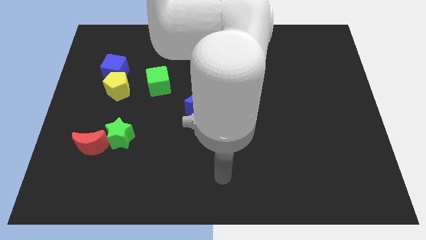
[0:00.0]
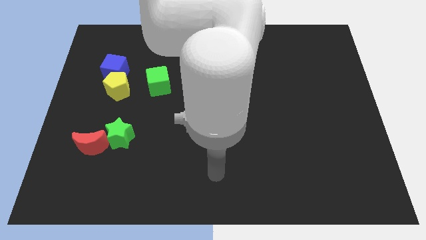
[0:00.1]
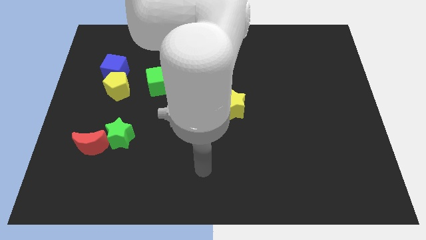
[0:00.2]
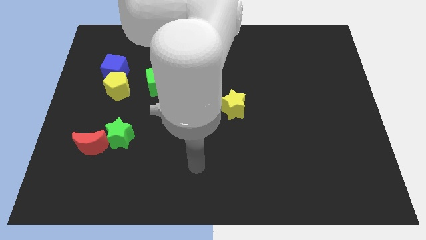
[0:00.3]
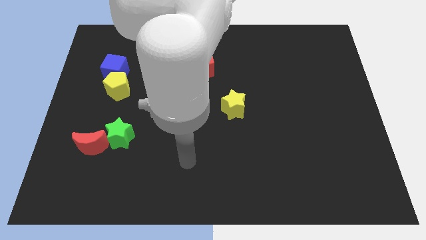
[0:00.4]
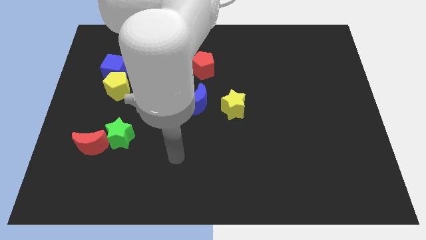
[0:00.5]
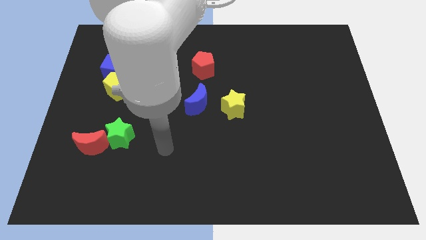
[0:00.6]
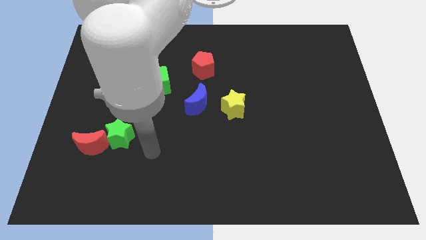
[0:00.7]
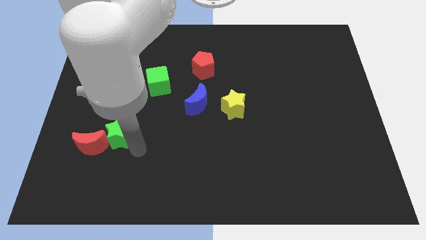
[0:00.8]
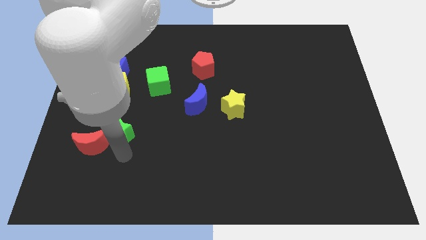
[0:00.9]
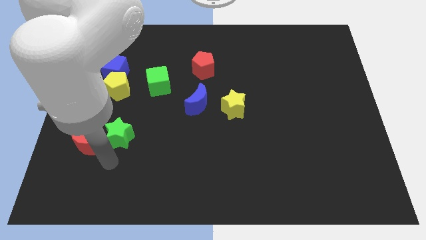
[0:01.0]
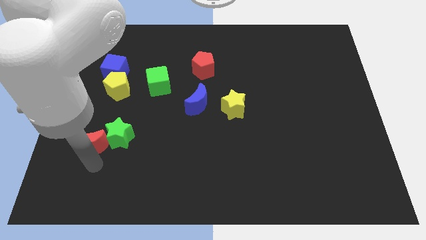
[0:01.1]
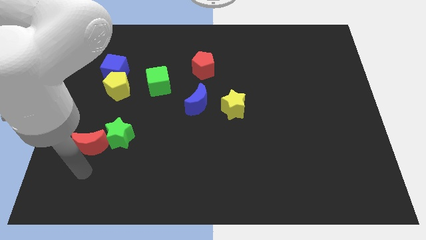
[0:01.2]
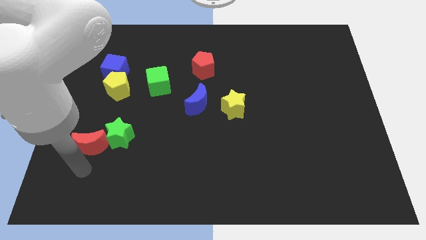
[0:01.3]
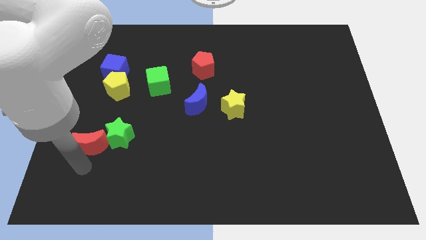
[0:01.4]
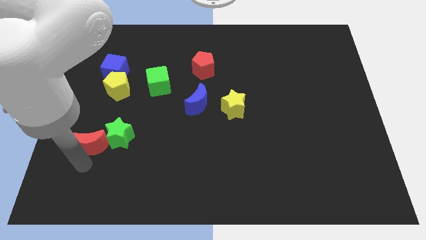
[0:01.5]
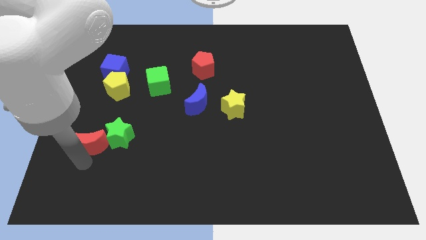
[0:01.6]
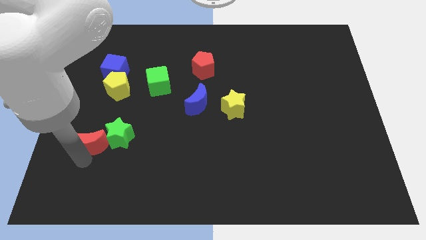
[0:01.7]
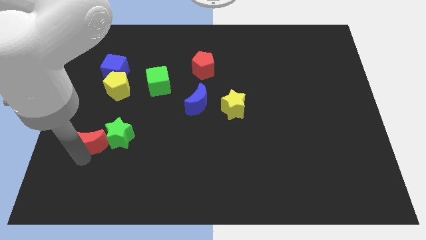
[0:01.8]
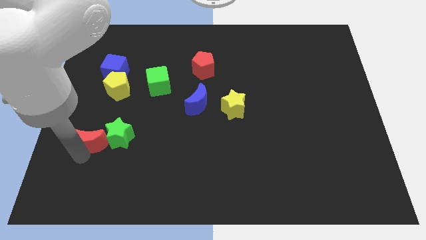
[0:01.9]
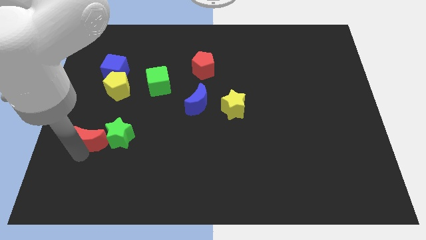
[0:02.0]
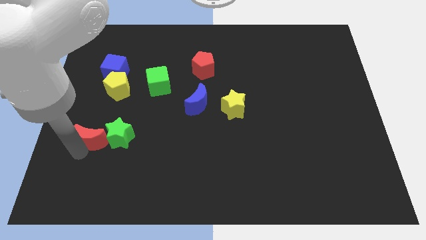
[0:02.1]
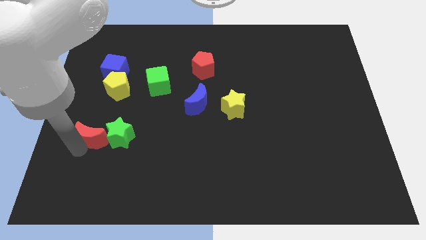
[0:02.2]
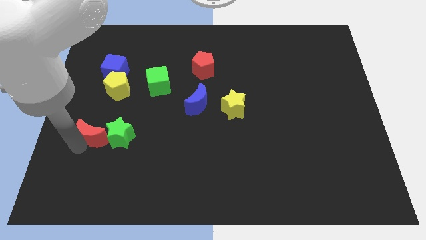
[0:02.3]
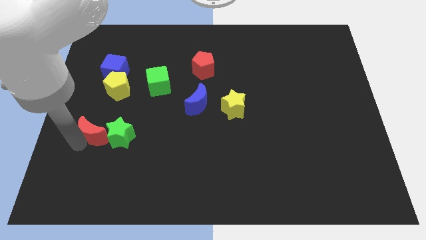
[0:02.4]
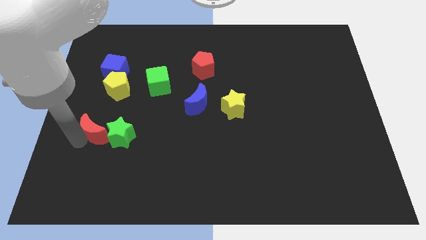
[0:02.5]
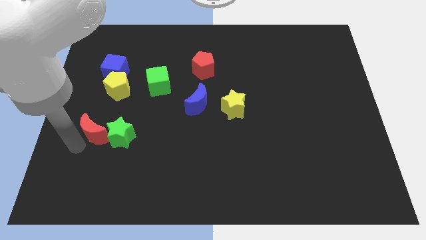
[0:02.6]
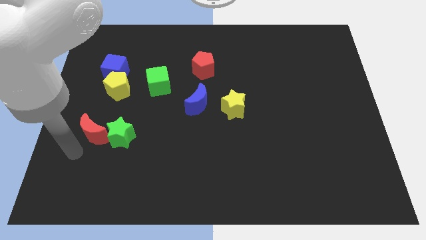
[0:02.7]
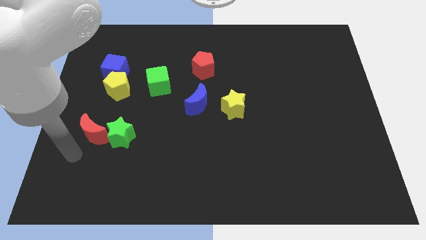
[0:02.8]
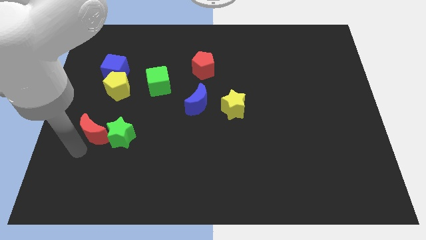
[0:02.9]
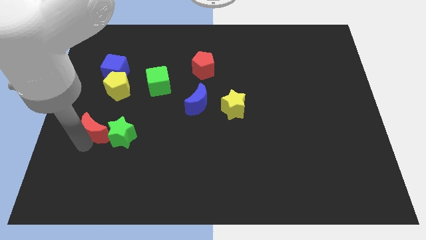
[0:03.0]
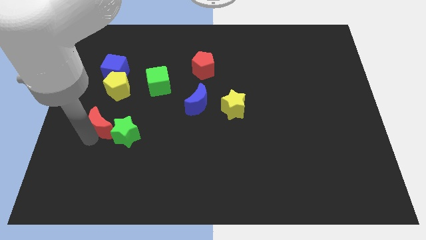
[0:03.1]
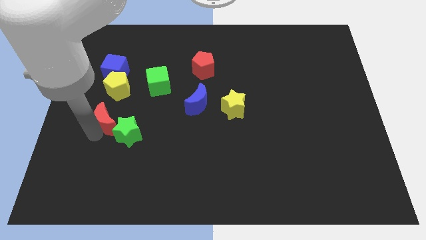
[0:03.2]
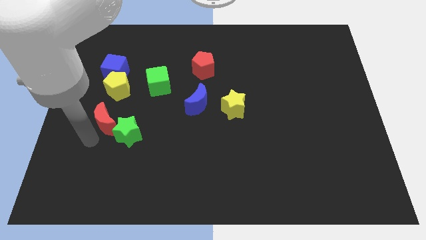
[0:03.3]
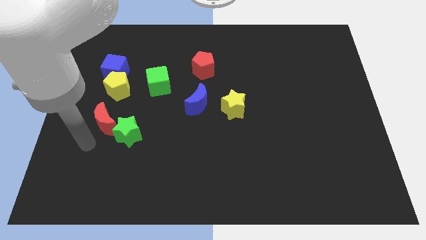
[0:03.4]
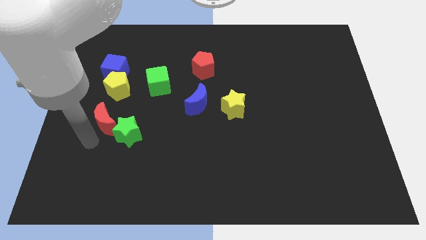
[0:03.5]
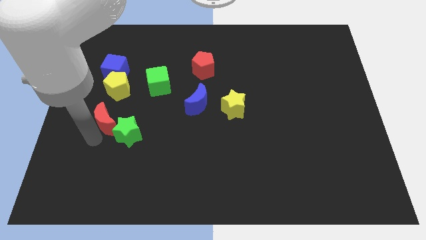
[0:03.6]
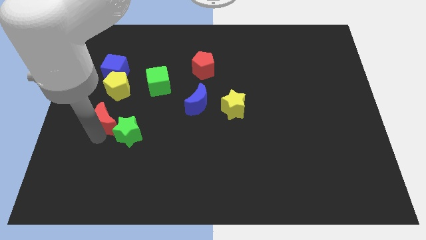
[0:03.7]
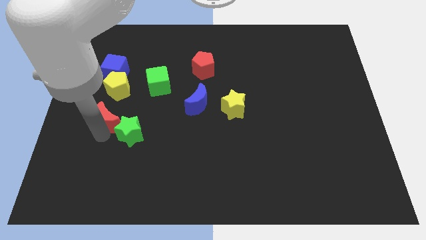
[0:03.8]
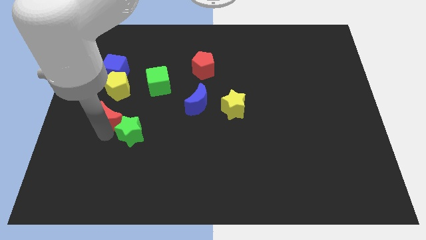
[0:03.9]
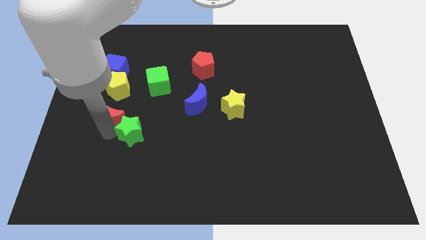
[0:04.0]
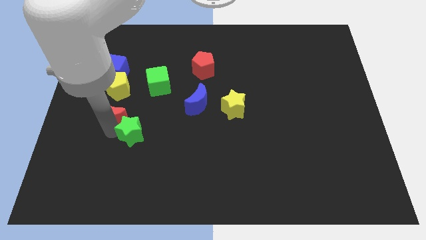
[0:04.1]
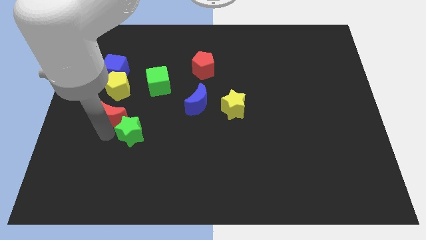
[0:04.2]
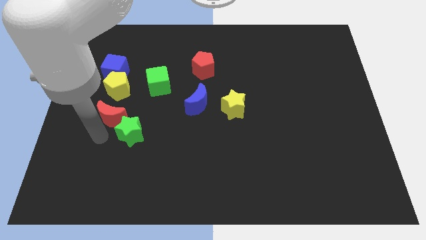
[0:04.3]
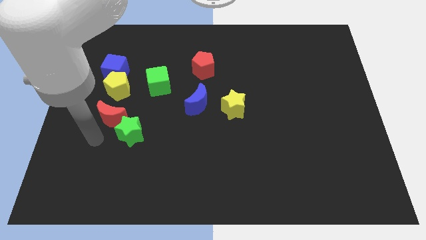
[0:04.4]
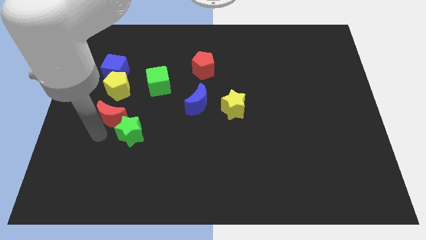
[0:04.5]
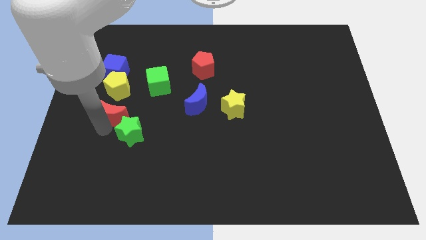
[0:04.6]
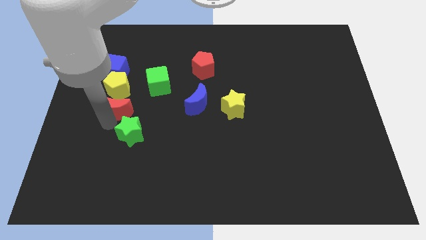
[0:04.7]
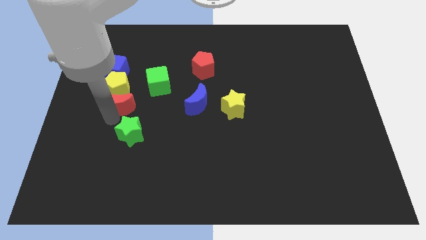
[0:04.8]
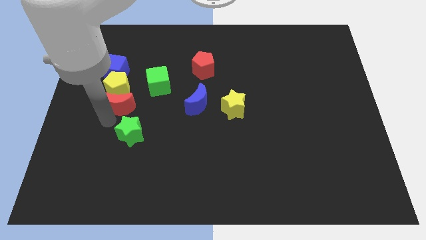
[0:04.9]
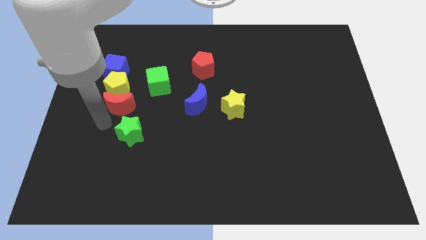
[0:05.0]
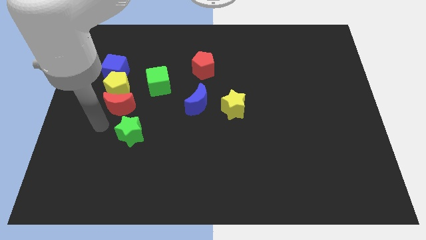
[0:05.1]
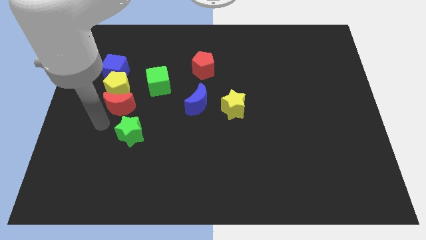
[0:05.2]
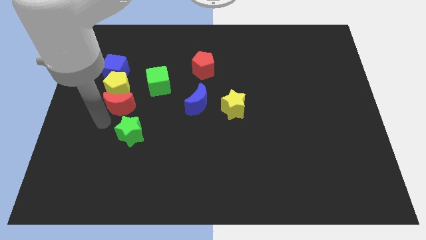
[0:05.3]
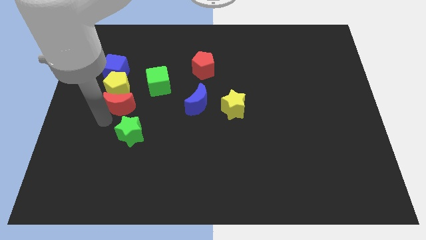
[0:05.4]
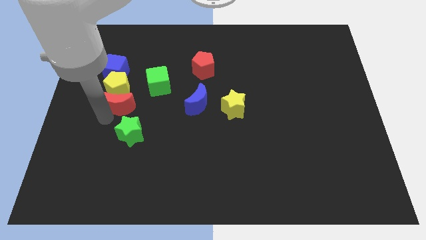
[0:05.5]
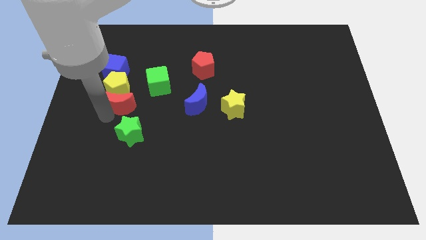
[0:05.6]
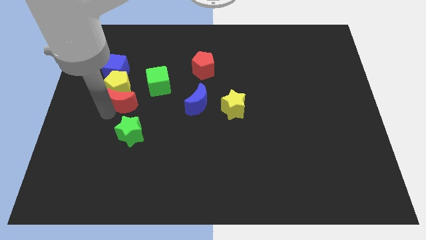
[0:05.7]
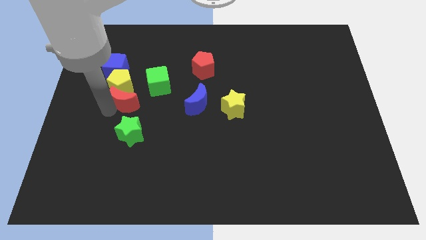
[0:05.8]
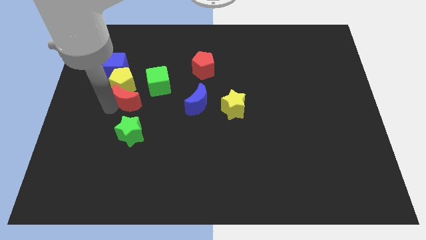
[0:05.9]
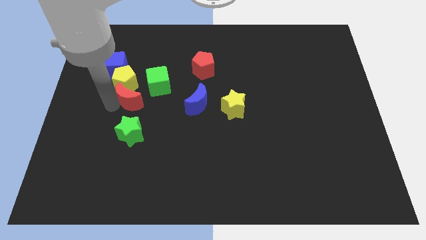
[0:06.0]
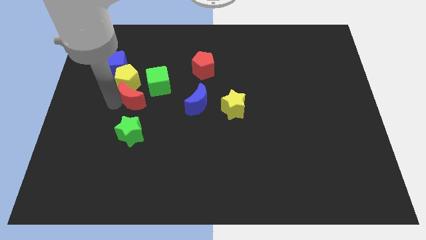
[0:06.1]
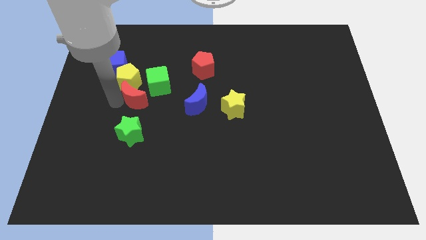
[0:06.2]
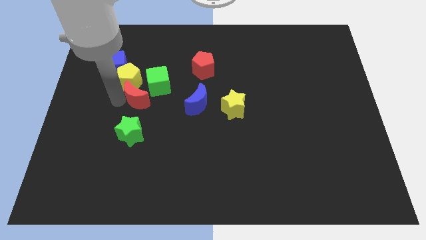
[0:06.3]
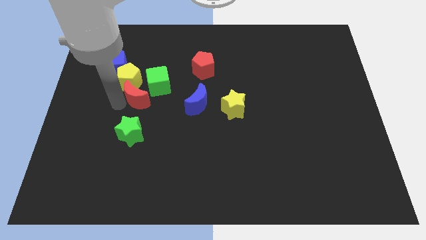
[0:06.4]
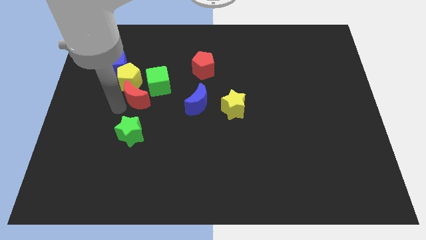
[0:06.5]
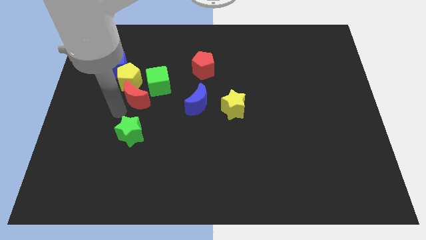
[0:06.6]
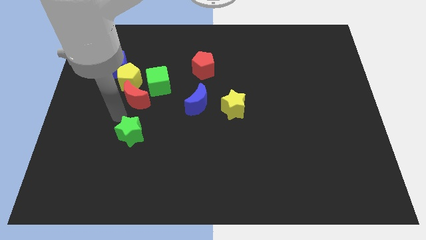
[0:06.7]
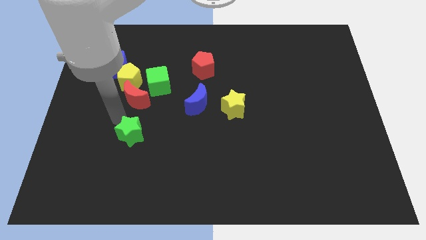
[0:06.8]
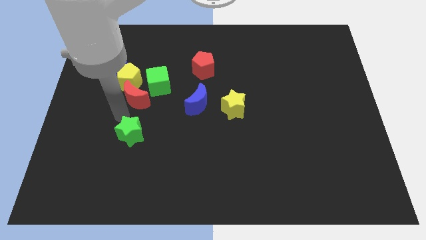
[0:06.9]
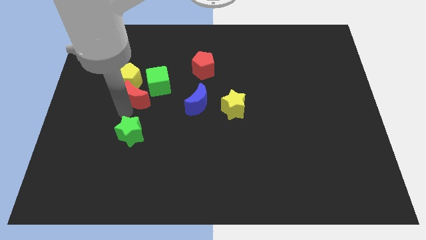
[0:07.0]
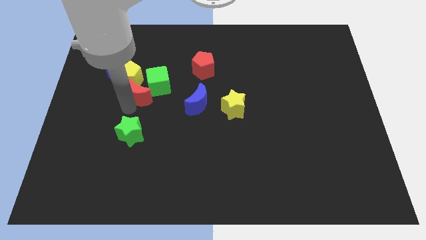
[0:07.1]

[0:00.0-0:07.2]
slide the red moon close to the green cube

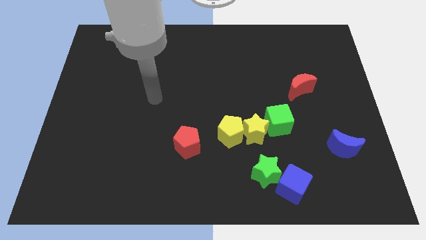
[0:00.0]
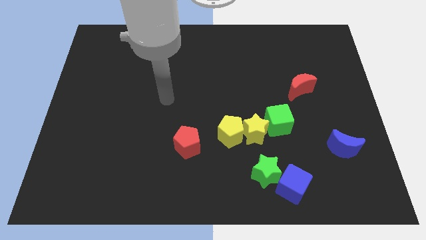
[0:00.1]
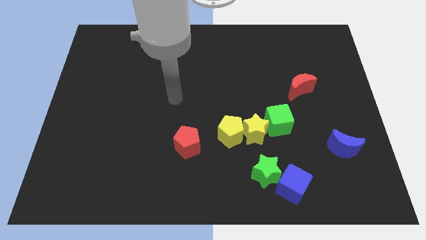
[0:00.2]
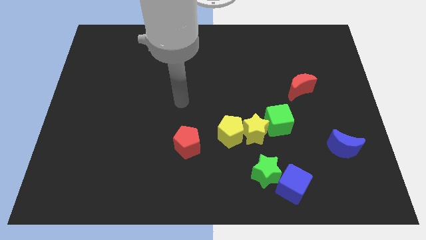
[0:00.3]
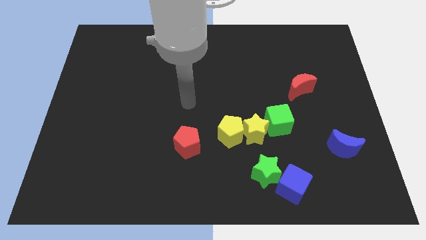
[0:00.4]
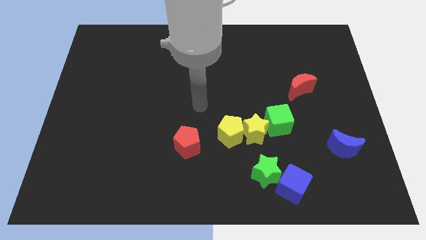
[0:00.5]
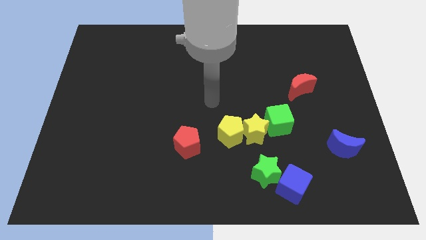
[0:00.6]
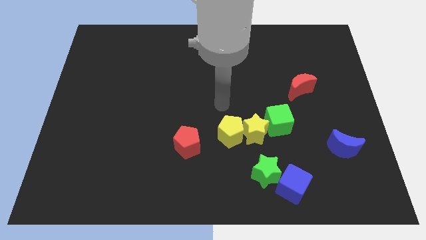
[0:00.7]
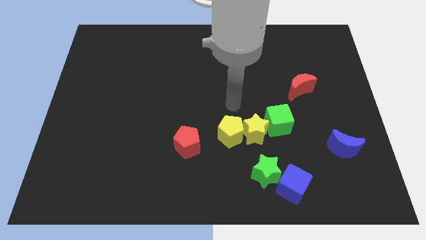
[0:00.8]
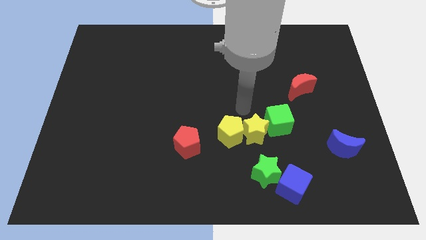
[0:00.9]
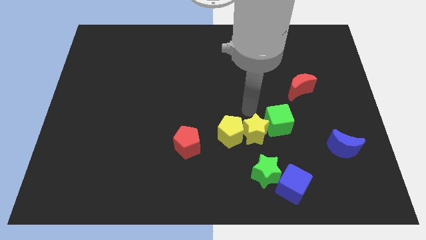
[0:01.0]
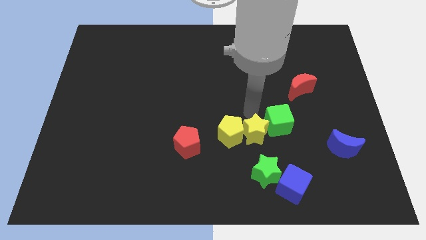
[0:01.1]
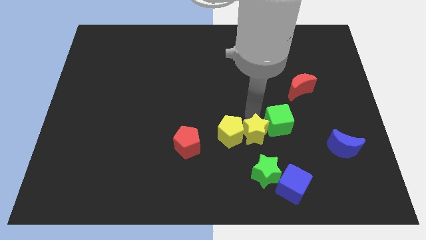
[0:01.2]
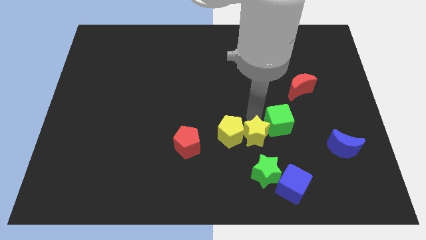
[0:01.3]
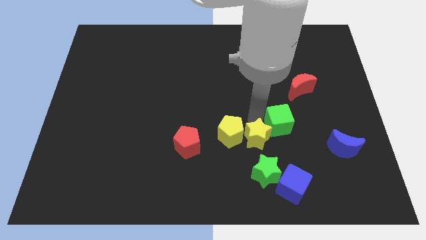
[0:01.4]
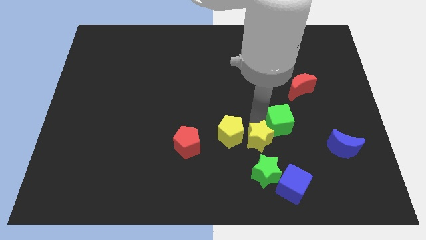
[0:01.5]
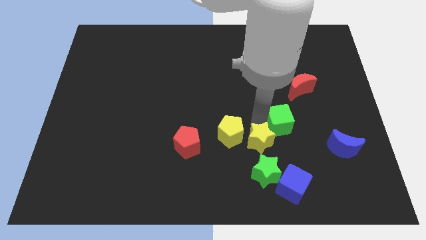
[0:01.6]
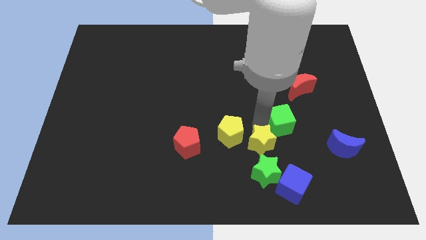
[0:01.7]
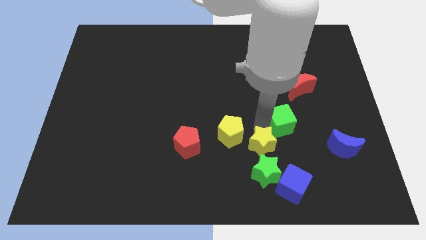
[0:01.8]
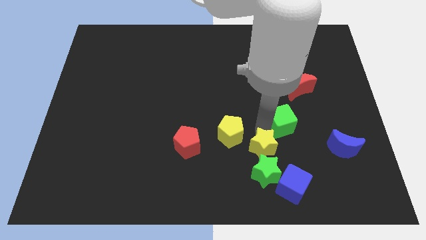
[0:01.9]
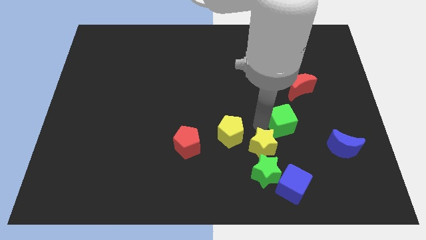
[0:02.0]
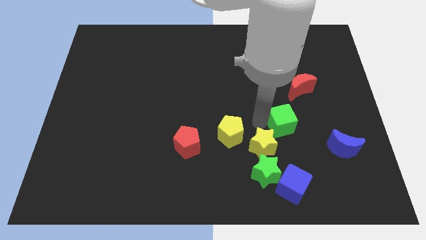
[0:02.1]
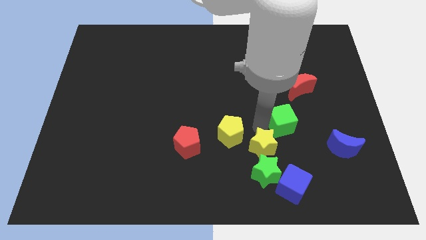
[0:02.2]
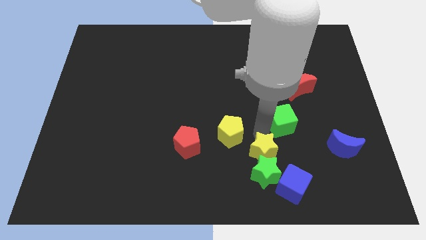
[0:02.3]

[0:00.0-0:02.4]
put the yellow star close to the green star
